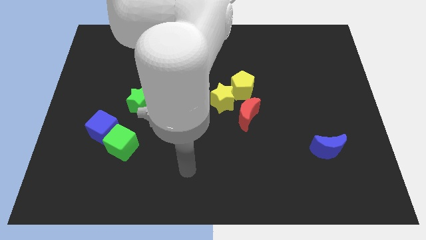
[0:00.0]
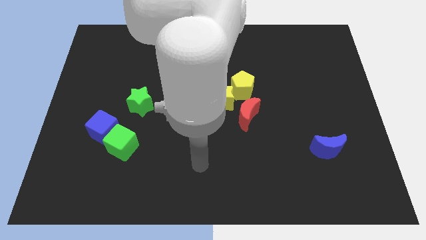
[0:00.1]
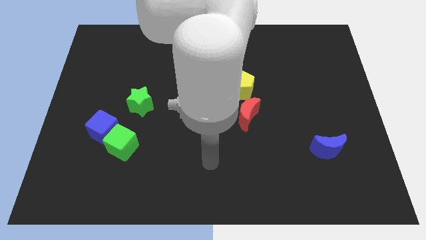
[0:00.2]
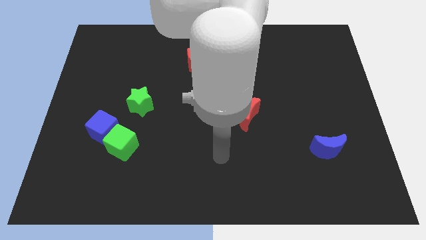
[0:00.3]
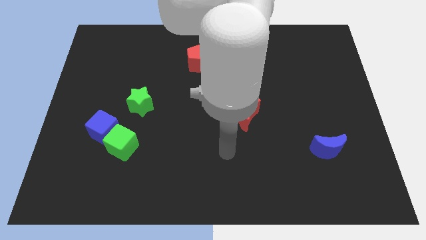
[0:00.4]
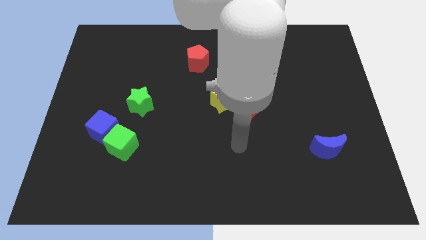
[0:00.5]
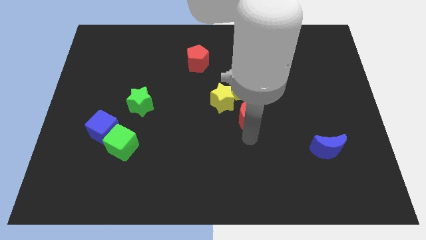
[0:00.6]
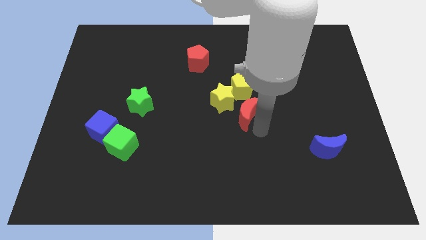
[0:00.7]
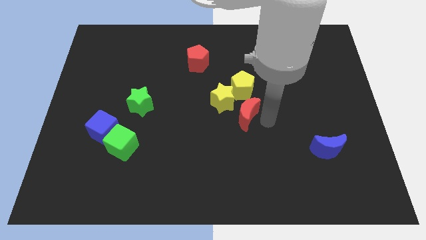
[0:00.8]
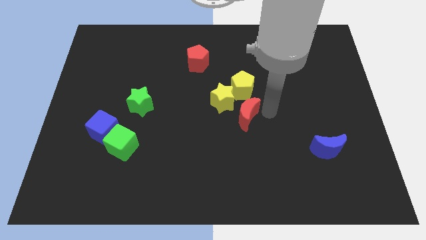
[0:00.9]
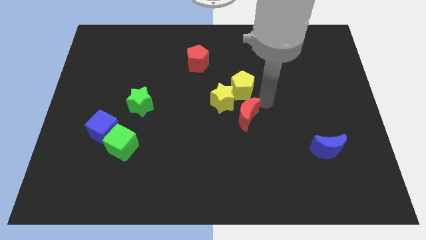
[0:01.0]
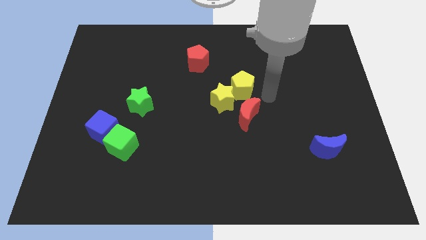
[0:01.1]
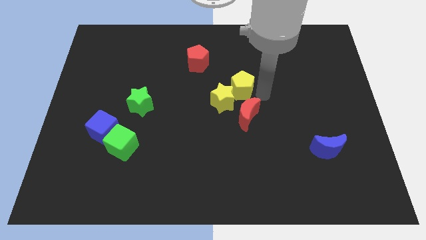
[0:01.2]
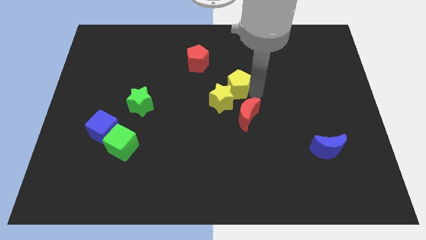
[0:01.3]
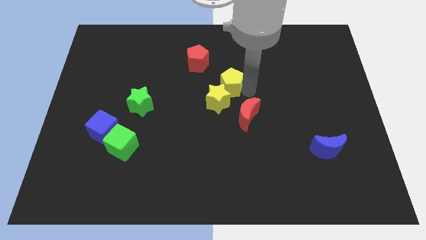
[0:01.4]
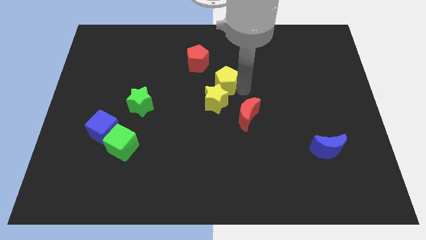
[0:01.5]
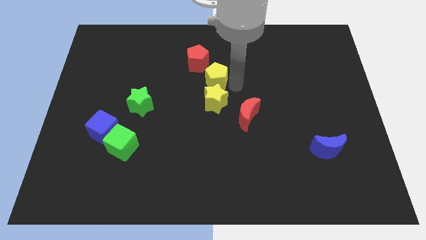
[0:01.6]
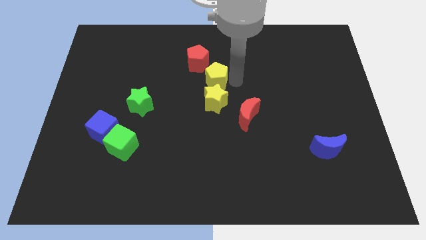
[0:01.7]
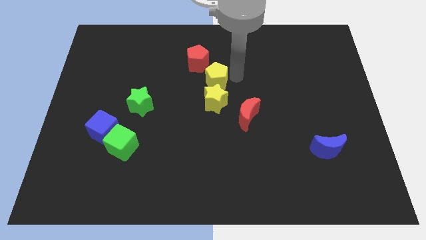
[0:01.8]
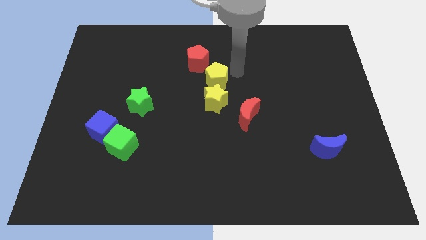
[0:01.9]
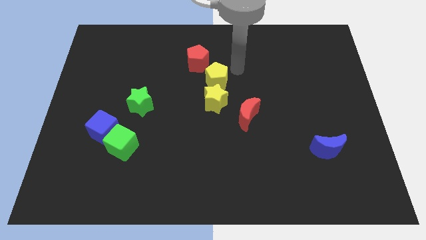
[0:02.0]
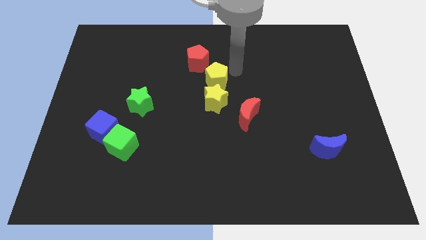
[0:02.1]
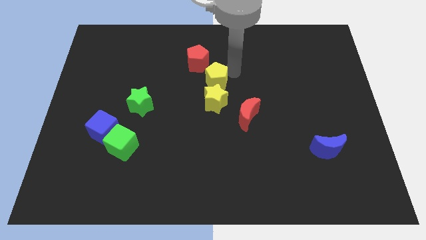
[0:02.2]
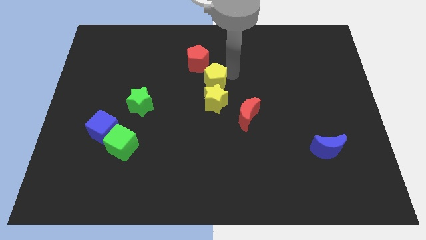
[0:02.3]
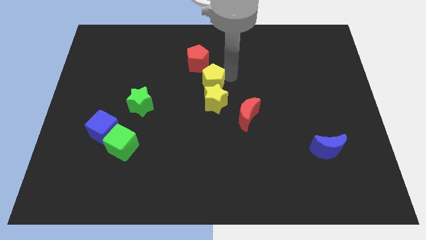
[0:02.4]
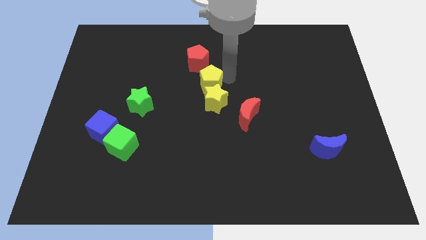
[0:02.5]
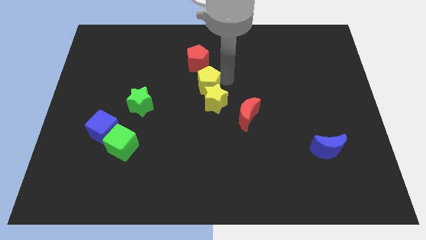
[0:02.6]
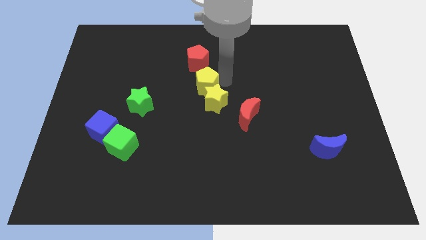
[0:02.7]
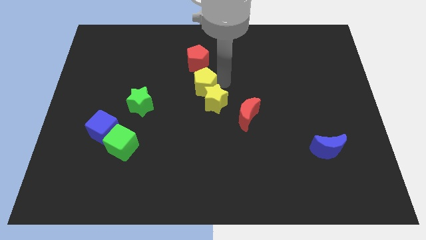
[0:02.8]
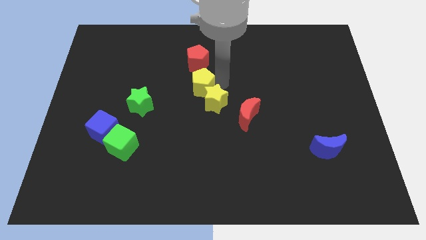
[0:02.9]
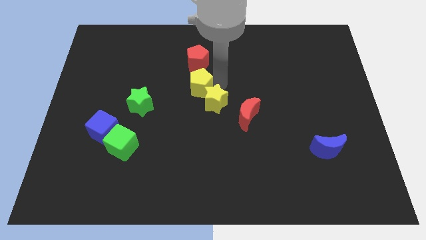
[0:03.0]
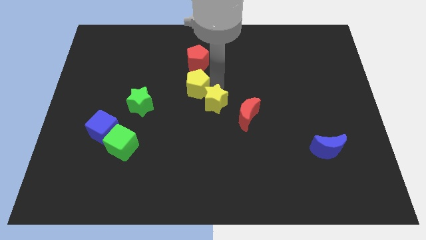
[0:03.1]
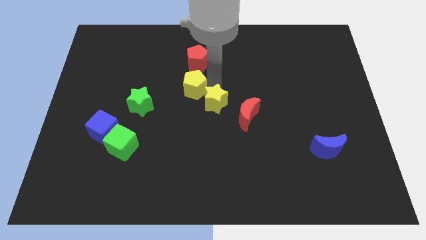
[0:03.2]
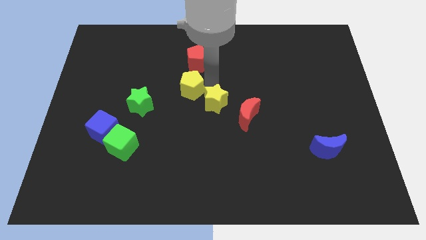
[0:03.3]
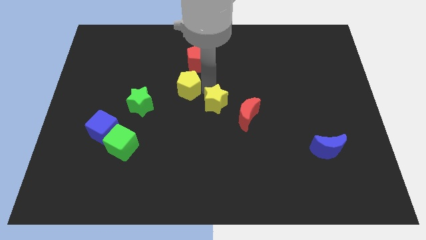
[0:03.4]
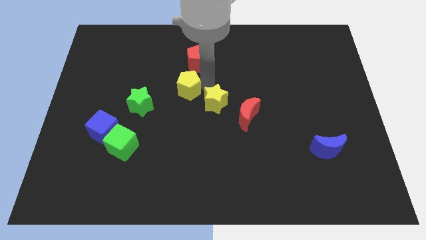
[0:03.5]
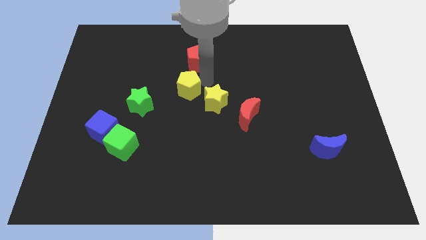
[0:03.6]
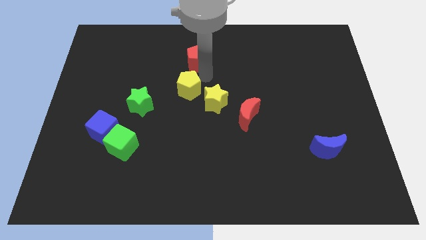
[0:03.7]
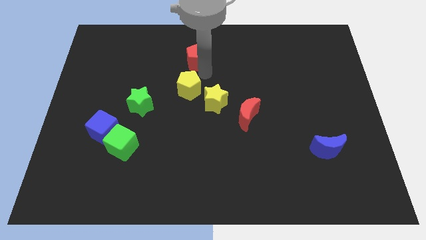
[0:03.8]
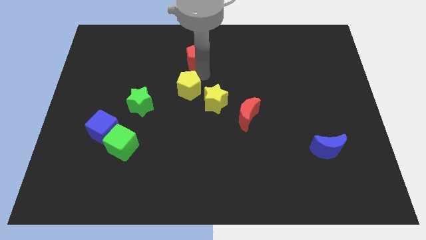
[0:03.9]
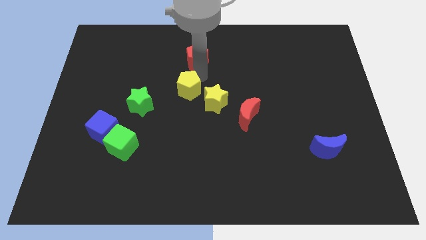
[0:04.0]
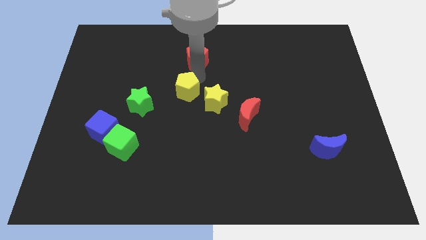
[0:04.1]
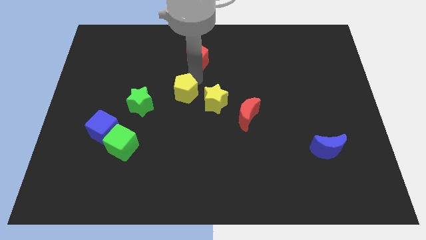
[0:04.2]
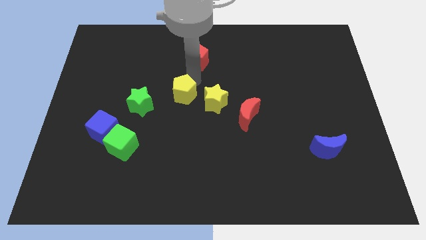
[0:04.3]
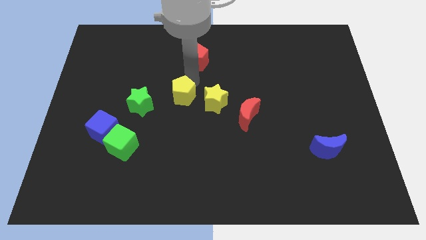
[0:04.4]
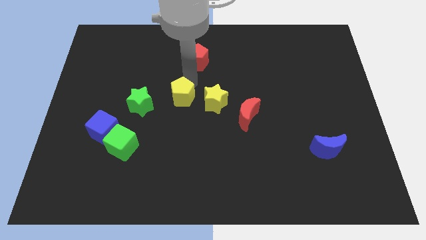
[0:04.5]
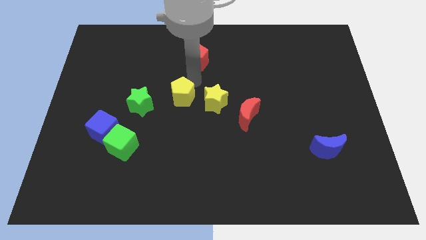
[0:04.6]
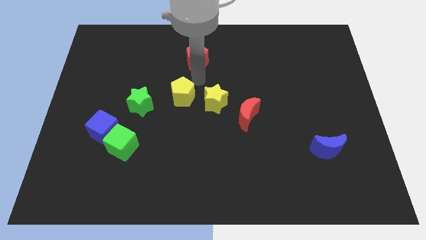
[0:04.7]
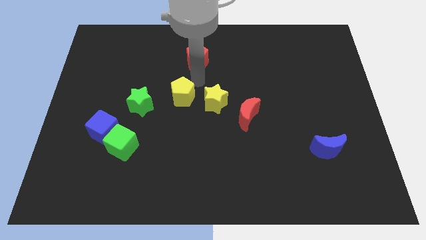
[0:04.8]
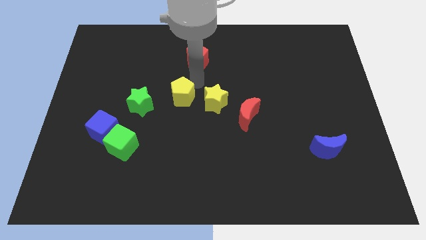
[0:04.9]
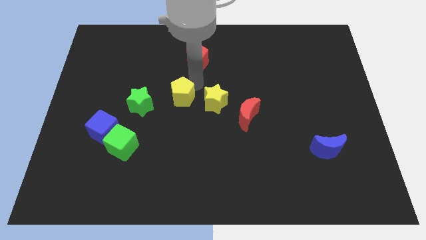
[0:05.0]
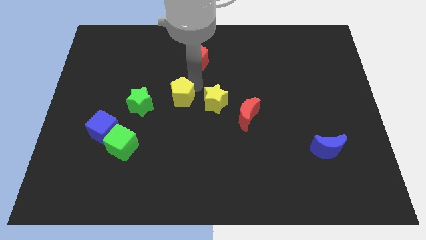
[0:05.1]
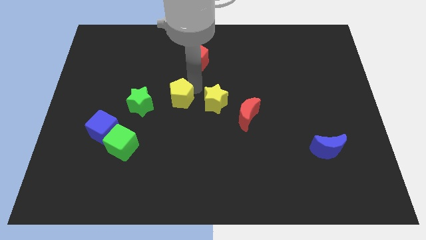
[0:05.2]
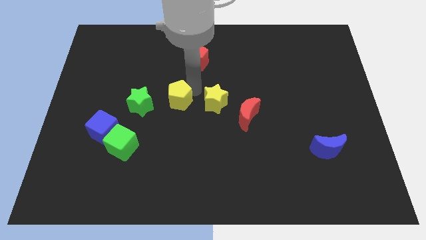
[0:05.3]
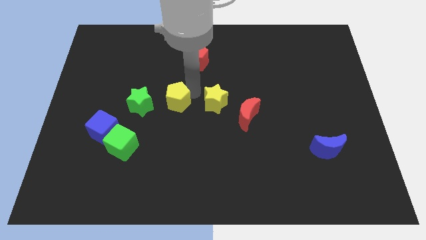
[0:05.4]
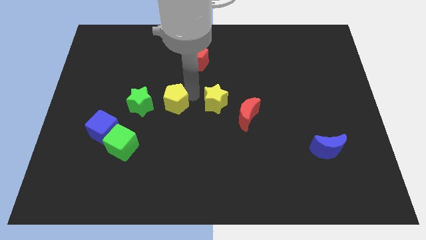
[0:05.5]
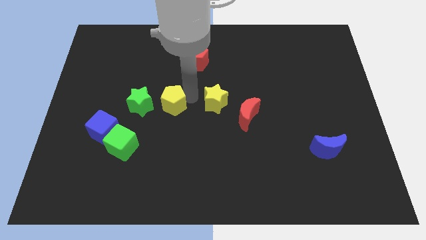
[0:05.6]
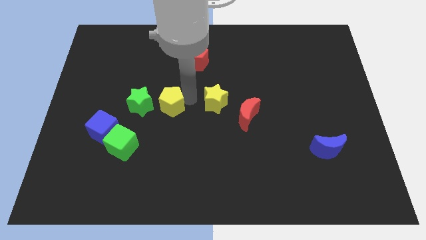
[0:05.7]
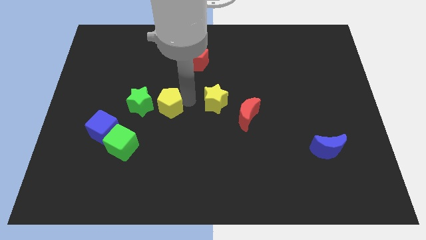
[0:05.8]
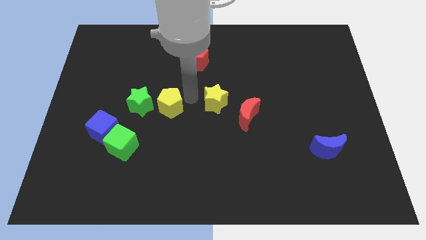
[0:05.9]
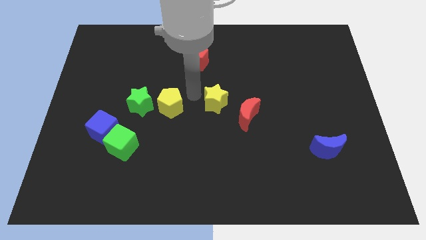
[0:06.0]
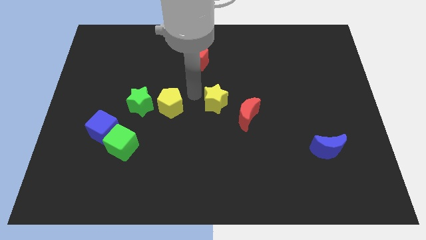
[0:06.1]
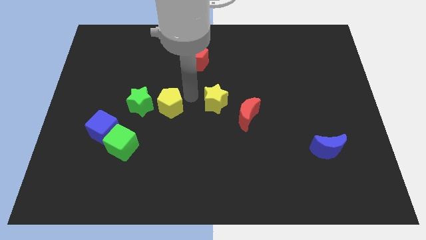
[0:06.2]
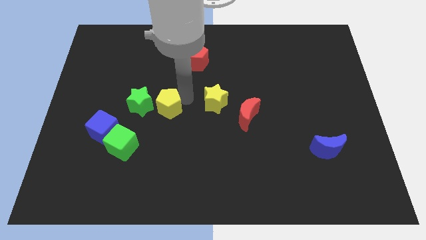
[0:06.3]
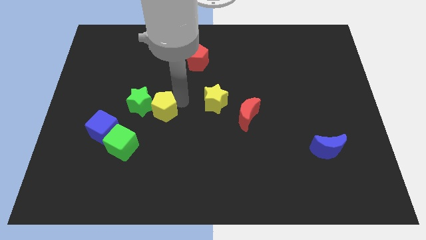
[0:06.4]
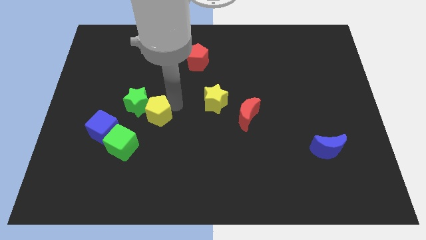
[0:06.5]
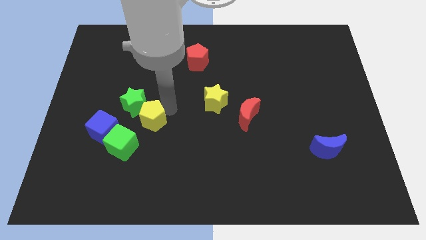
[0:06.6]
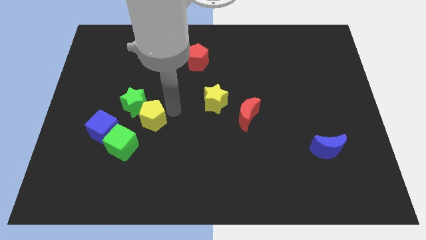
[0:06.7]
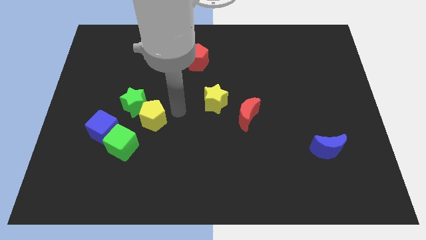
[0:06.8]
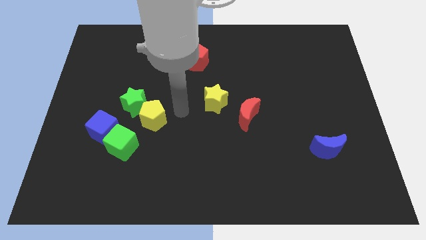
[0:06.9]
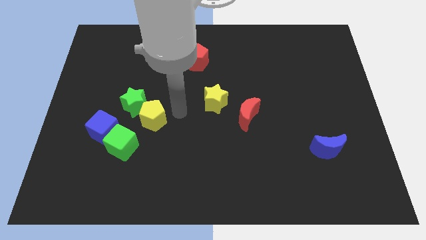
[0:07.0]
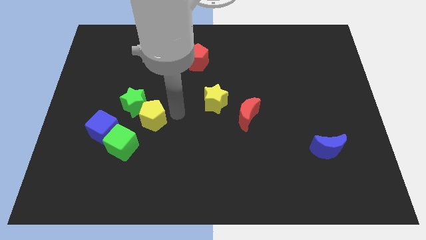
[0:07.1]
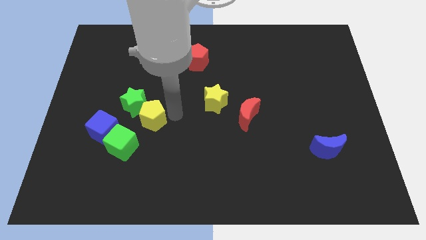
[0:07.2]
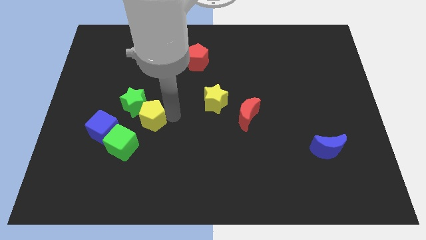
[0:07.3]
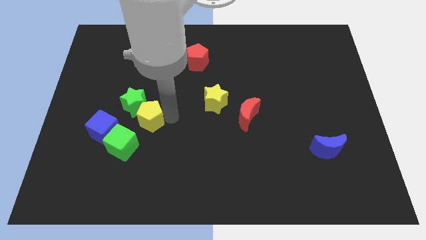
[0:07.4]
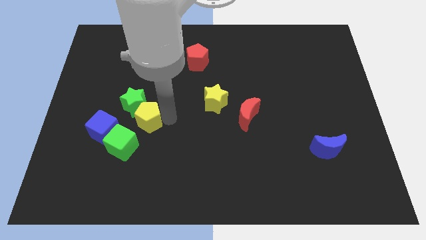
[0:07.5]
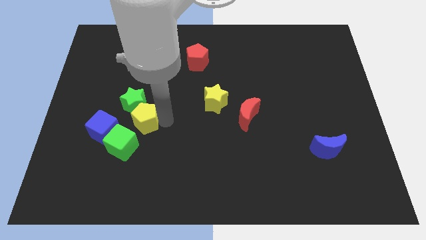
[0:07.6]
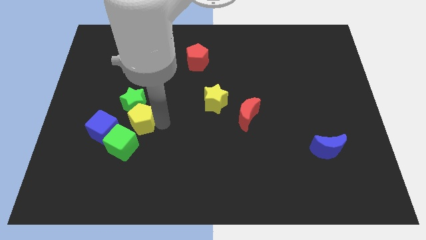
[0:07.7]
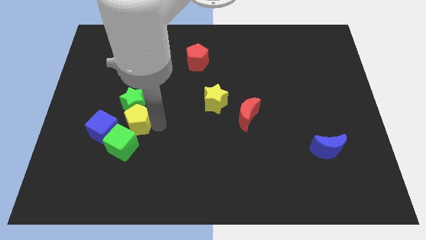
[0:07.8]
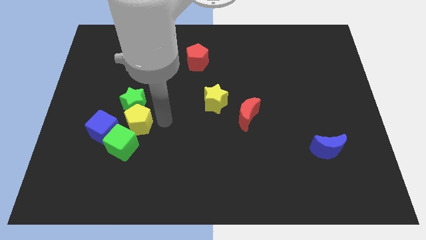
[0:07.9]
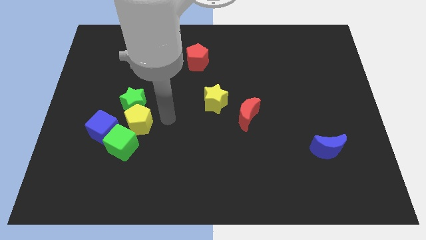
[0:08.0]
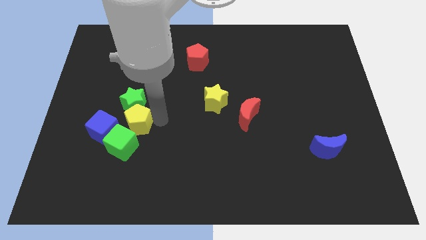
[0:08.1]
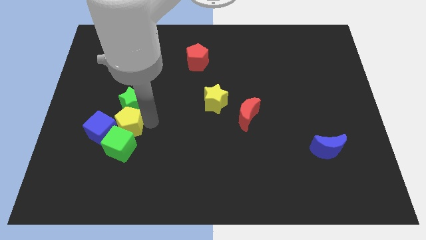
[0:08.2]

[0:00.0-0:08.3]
put the yellow pentagon to the blue cube
